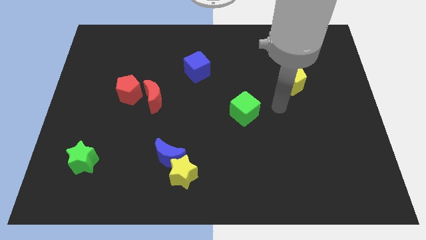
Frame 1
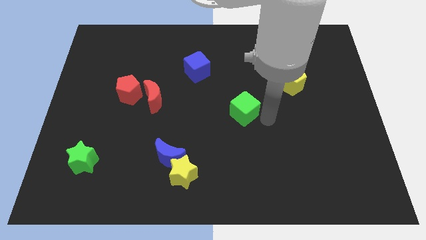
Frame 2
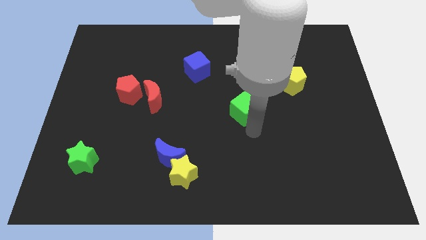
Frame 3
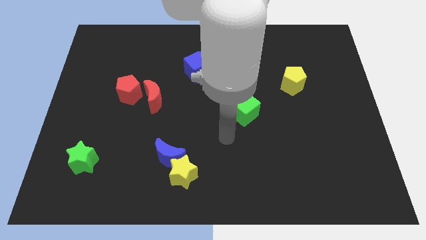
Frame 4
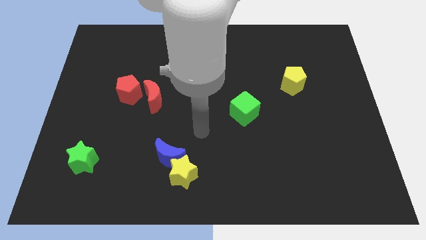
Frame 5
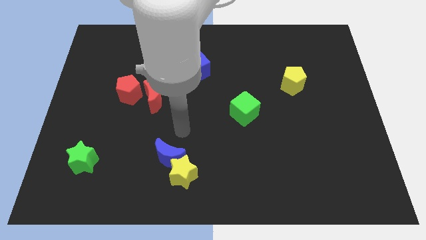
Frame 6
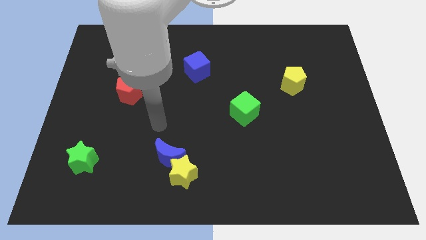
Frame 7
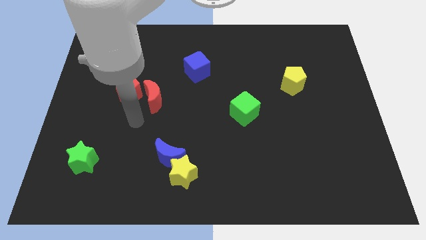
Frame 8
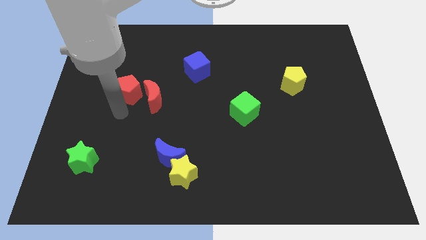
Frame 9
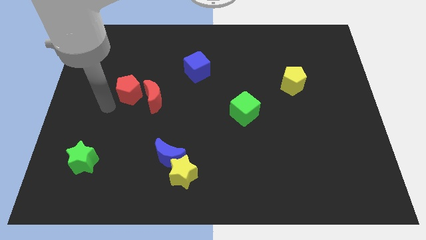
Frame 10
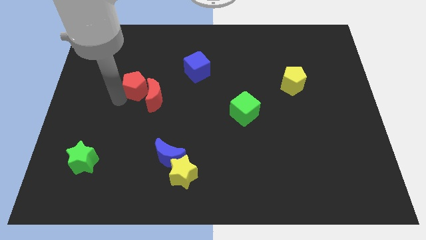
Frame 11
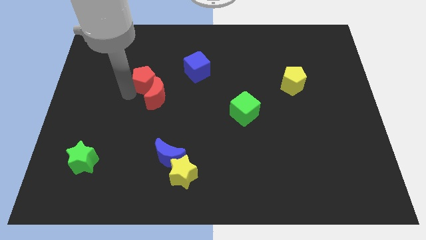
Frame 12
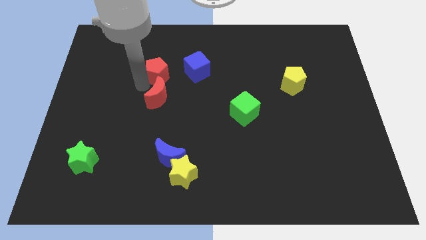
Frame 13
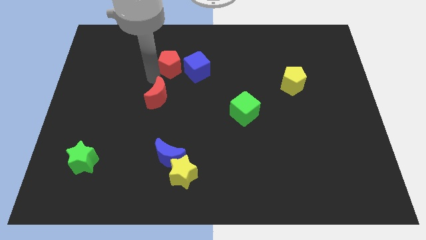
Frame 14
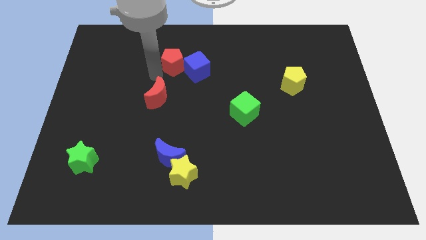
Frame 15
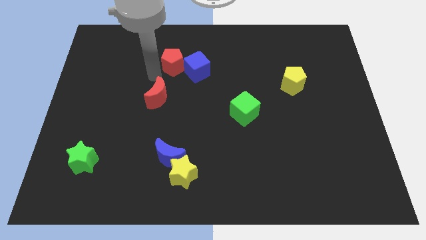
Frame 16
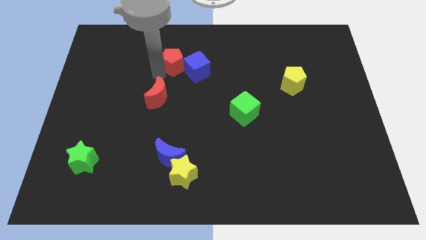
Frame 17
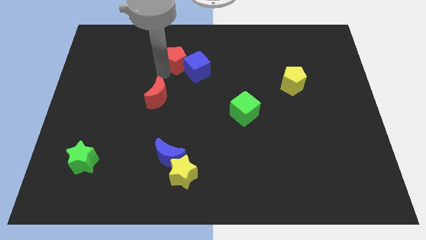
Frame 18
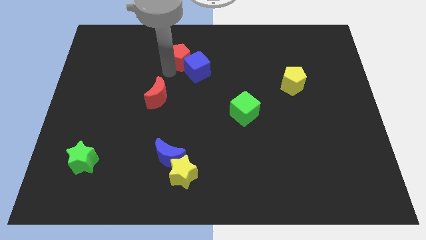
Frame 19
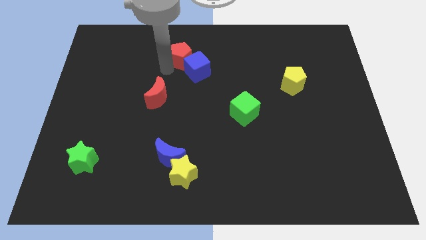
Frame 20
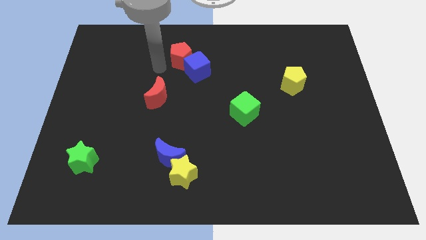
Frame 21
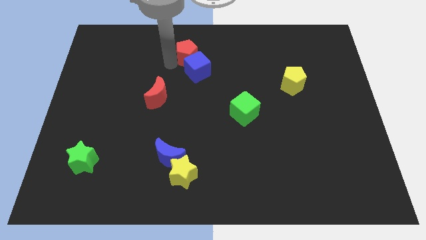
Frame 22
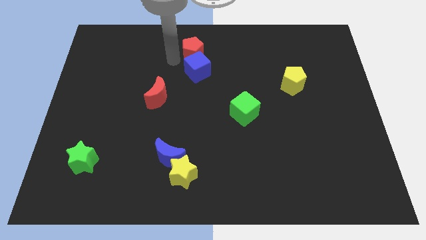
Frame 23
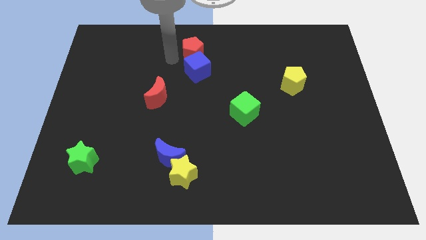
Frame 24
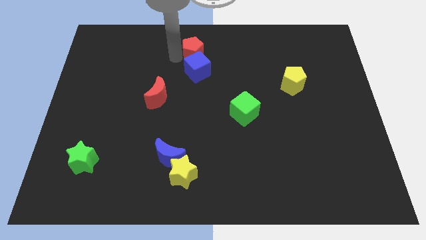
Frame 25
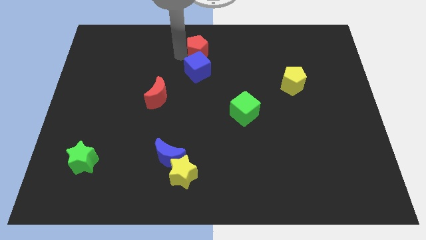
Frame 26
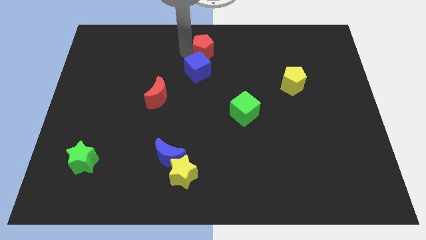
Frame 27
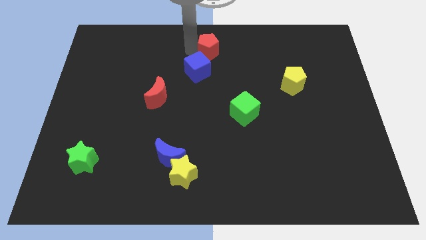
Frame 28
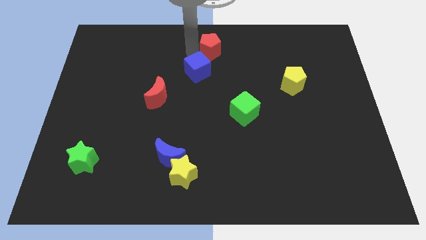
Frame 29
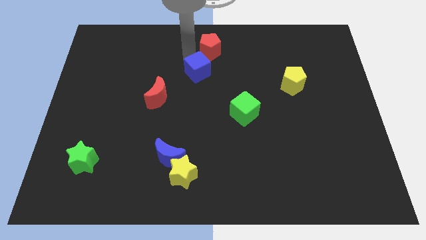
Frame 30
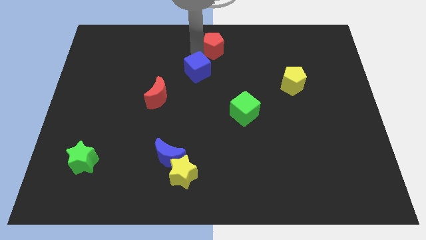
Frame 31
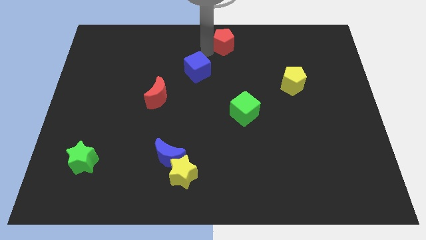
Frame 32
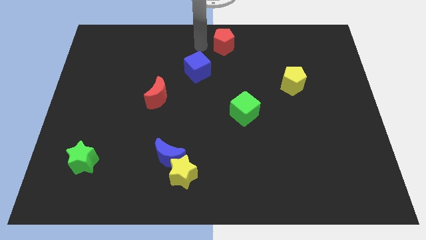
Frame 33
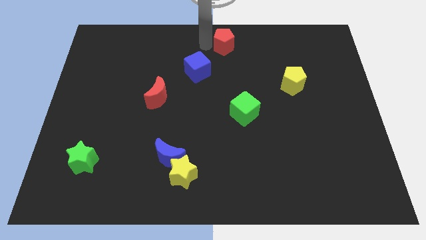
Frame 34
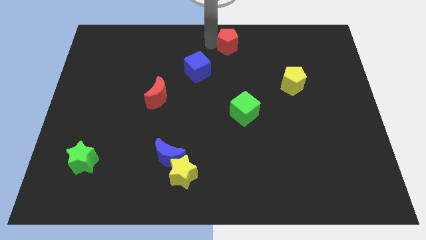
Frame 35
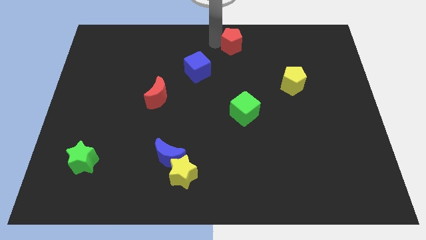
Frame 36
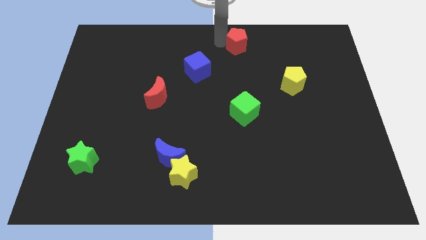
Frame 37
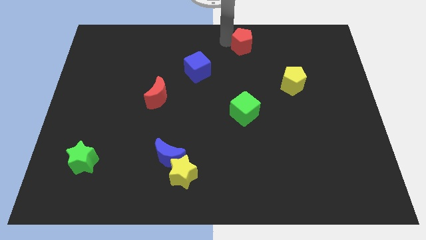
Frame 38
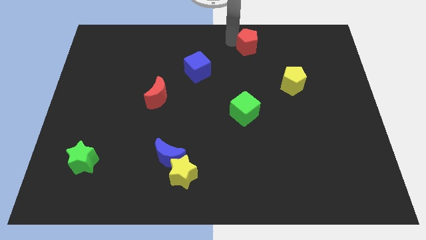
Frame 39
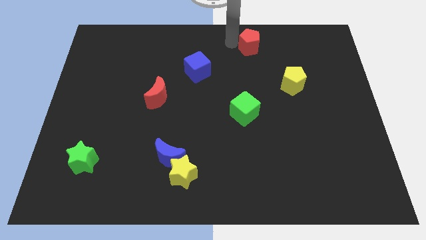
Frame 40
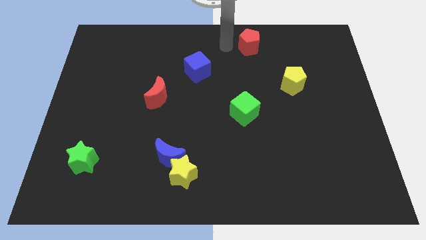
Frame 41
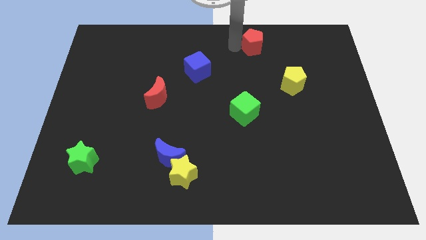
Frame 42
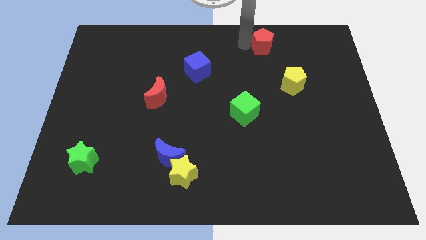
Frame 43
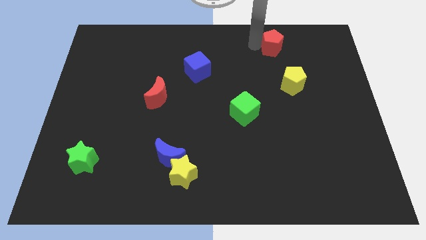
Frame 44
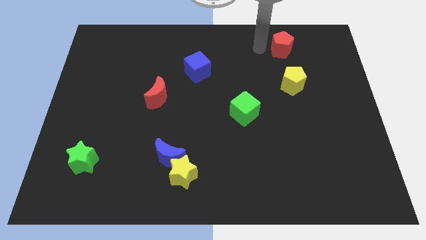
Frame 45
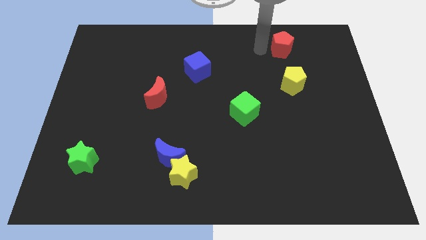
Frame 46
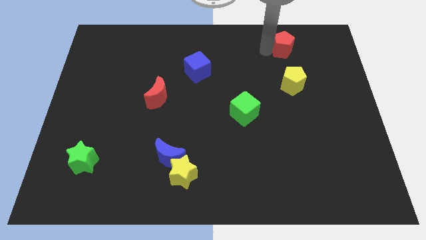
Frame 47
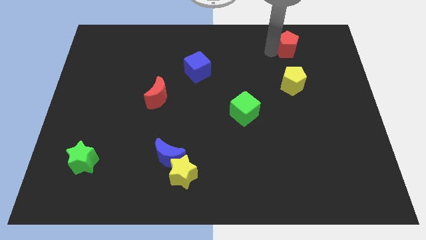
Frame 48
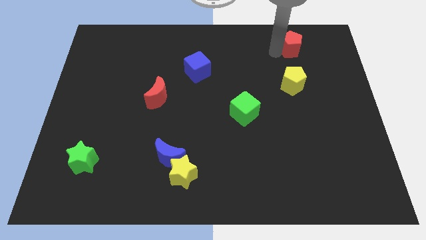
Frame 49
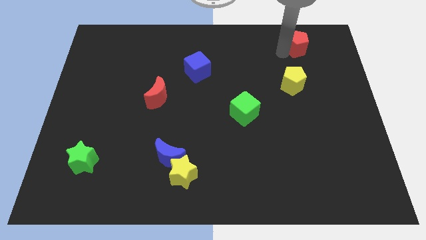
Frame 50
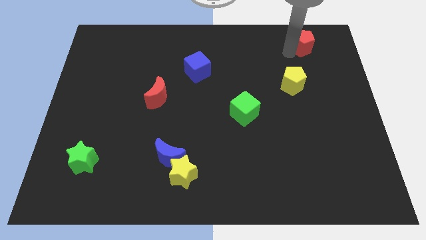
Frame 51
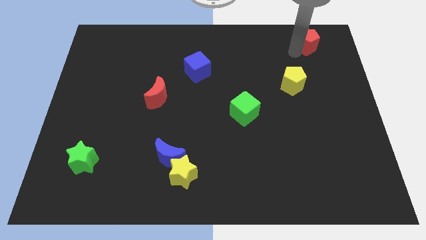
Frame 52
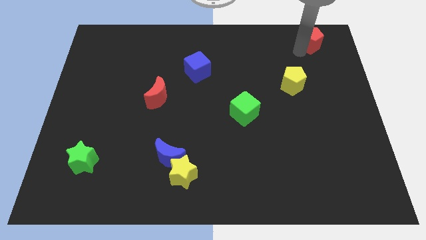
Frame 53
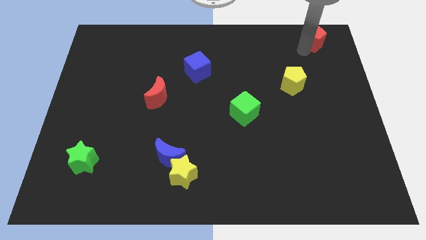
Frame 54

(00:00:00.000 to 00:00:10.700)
slide the red pentagon to the top right

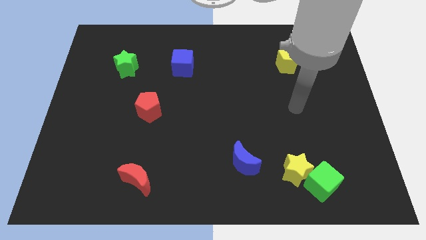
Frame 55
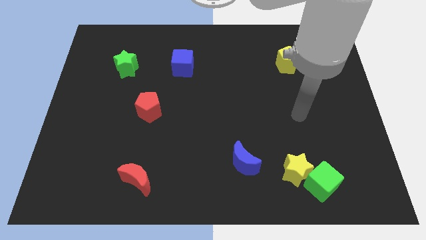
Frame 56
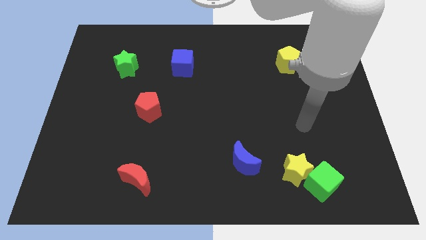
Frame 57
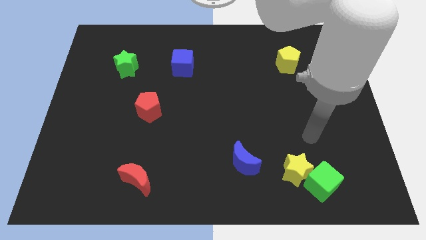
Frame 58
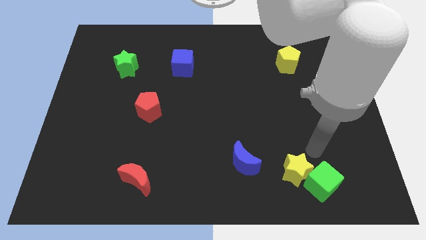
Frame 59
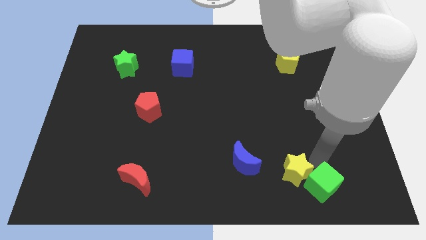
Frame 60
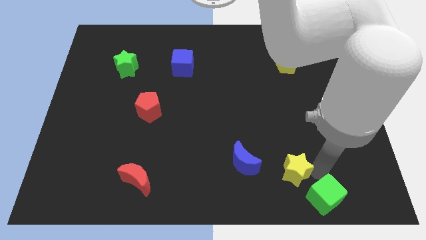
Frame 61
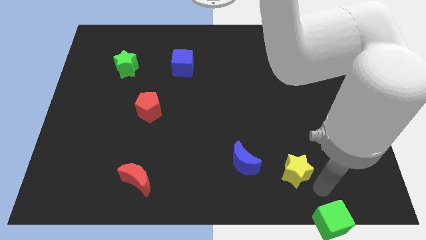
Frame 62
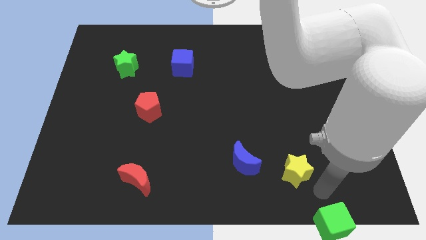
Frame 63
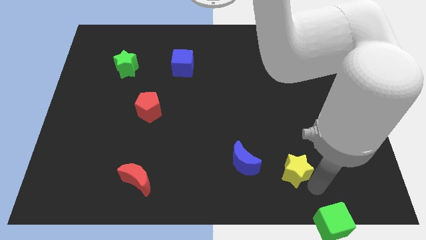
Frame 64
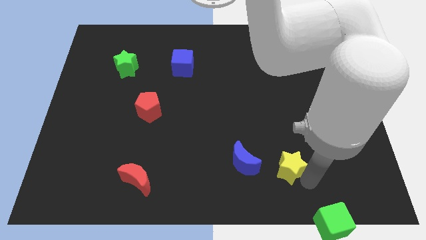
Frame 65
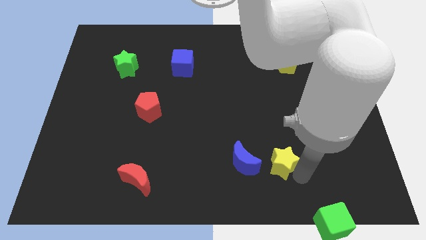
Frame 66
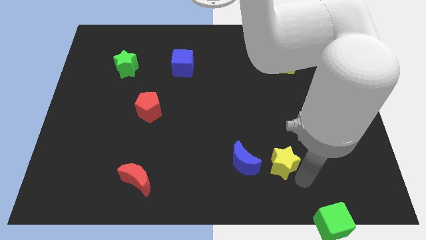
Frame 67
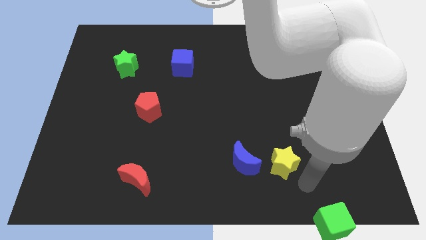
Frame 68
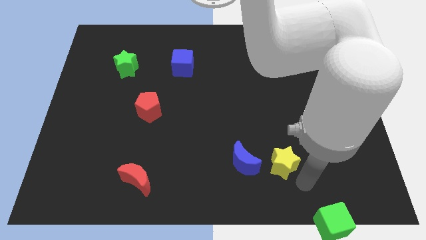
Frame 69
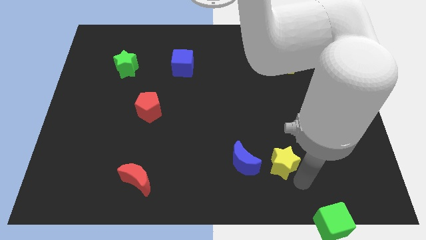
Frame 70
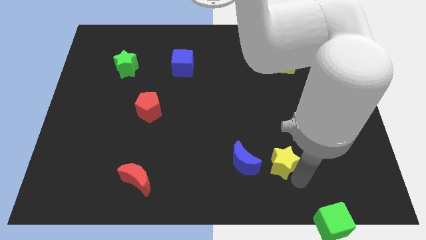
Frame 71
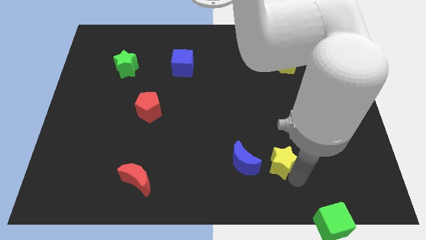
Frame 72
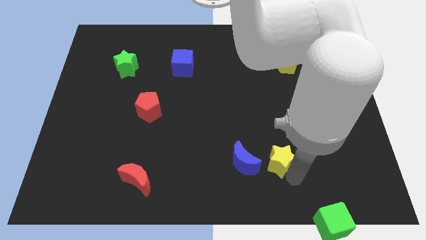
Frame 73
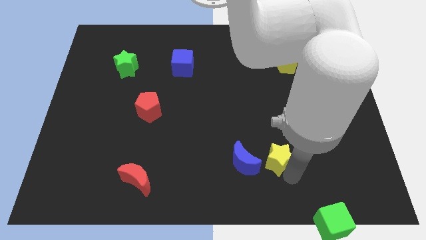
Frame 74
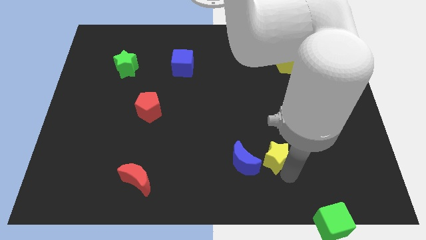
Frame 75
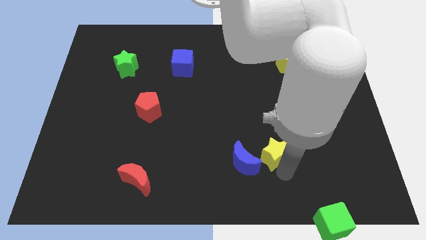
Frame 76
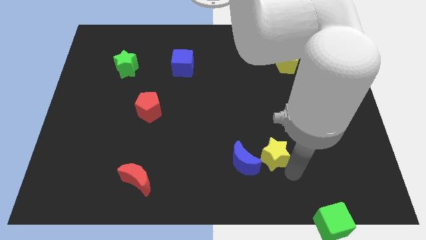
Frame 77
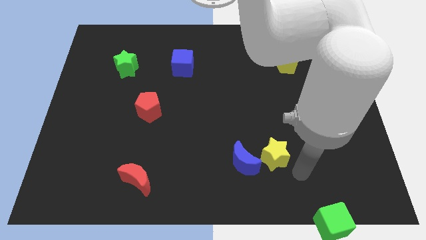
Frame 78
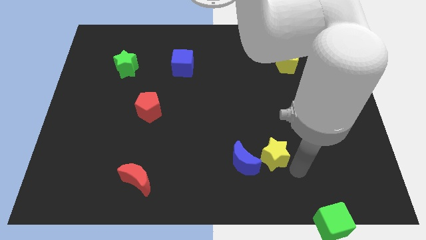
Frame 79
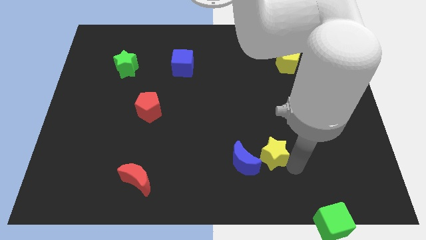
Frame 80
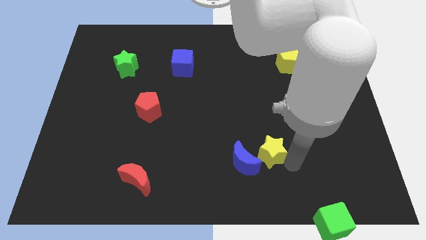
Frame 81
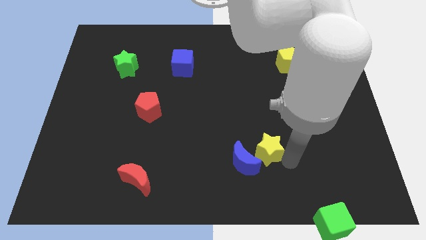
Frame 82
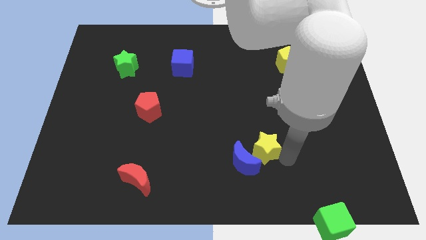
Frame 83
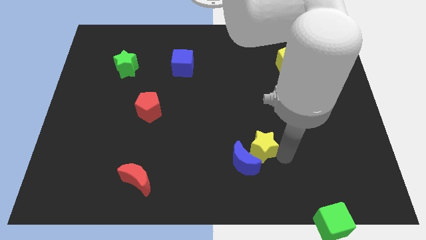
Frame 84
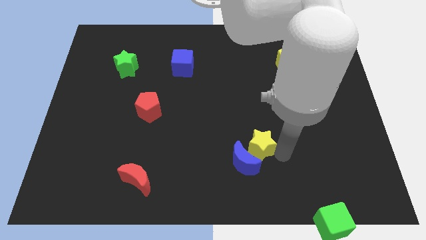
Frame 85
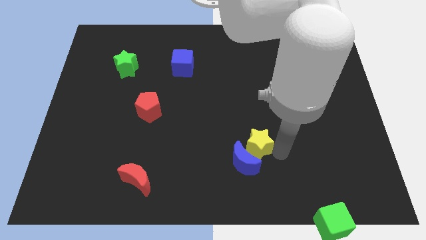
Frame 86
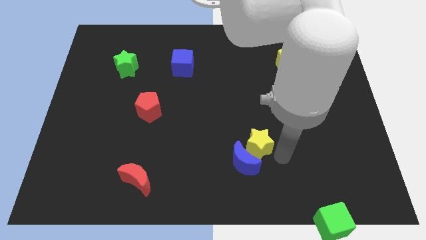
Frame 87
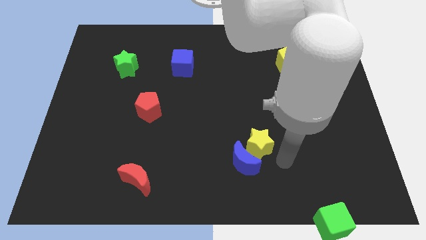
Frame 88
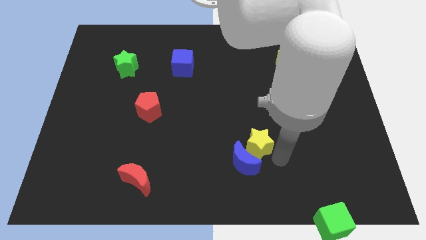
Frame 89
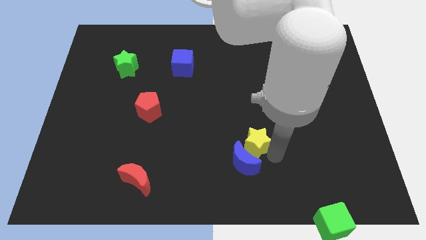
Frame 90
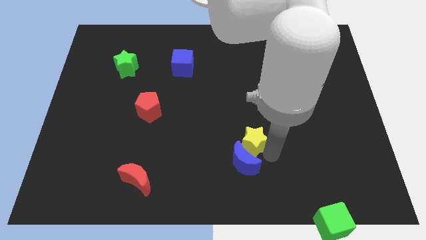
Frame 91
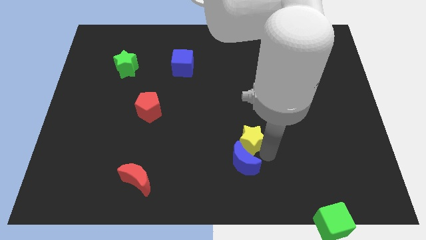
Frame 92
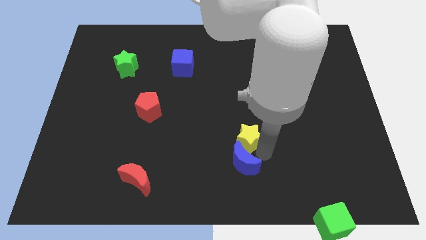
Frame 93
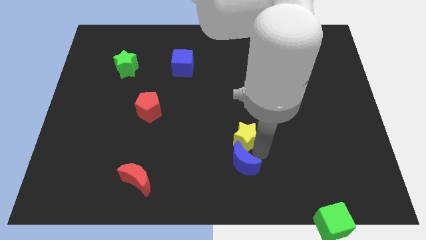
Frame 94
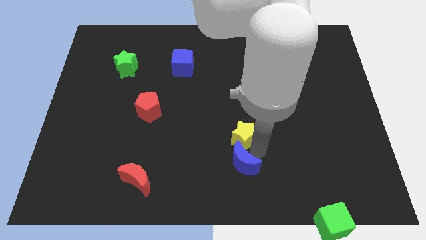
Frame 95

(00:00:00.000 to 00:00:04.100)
push the yellow star to the center
